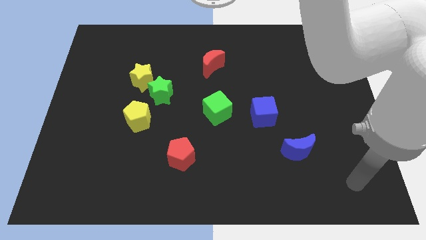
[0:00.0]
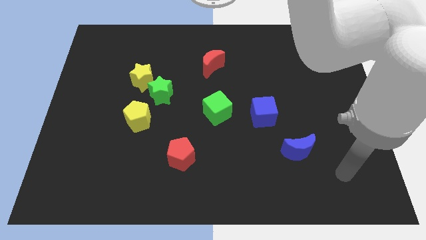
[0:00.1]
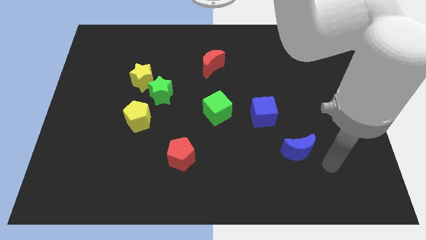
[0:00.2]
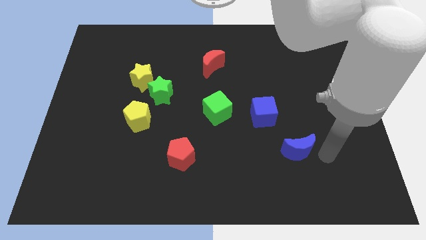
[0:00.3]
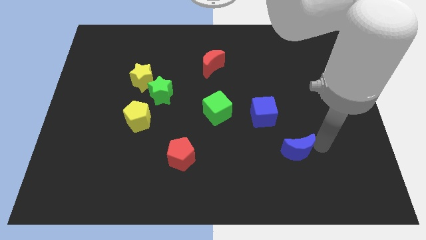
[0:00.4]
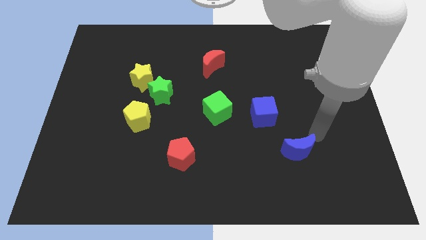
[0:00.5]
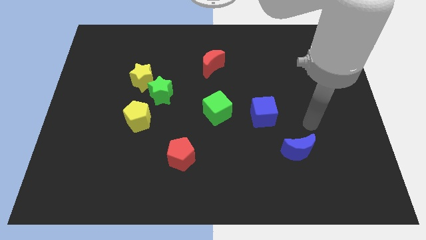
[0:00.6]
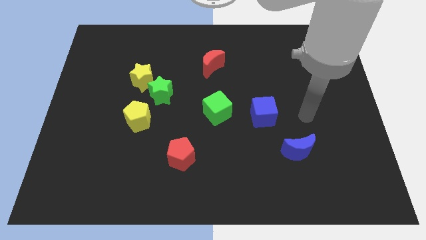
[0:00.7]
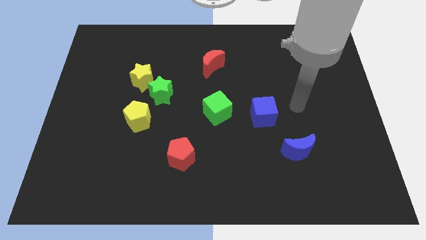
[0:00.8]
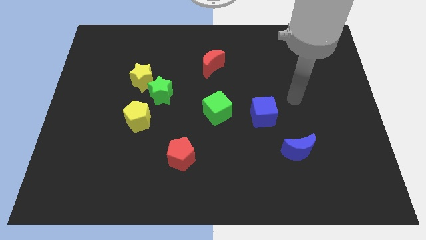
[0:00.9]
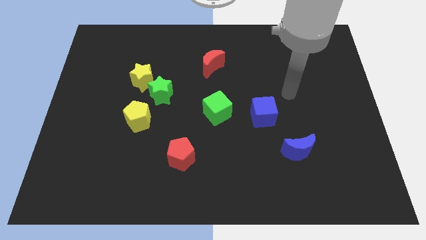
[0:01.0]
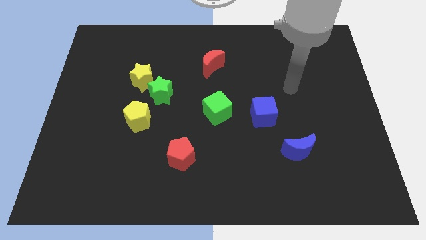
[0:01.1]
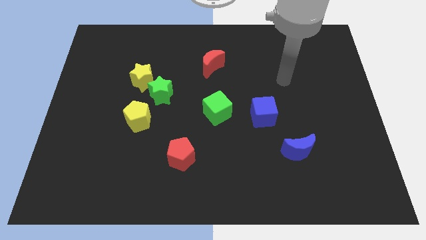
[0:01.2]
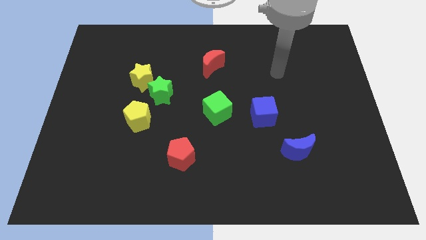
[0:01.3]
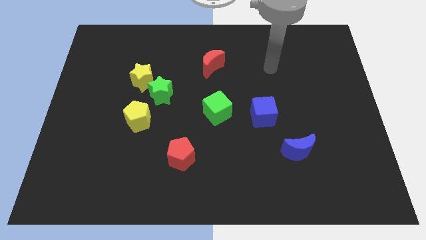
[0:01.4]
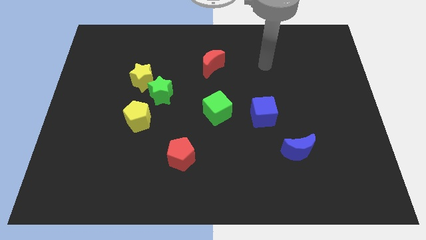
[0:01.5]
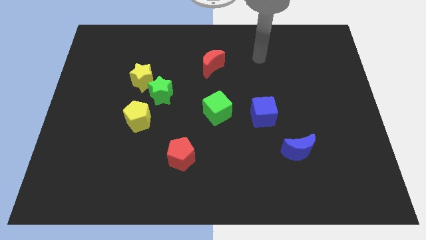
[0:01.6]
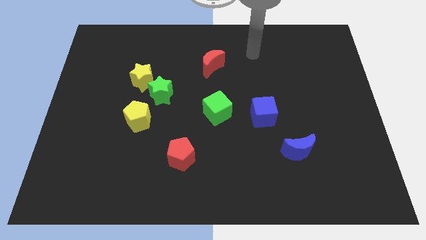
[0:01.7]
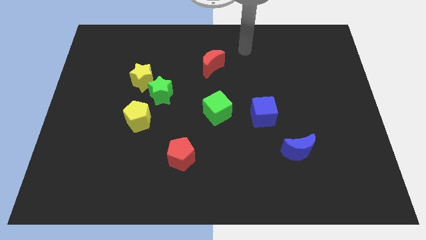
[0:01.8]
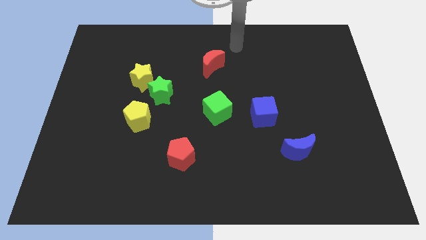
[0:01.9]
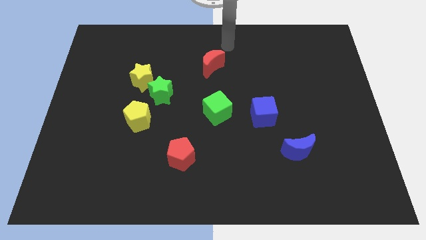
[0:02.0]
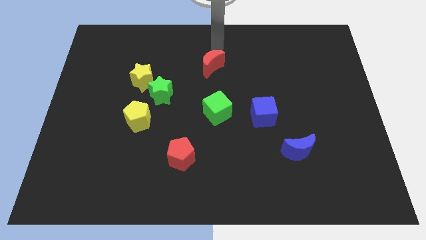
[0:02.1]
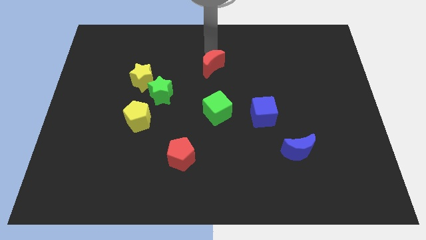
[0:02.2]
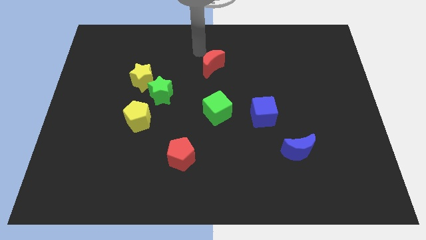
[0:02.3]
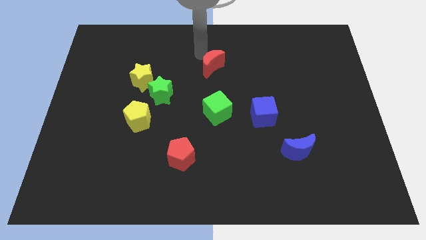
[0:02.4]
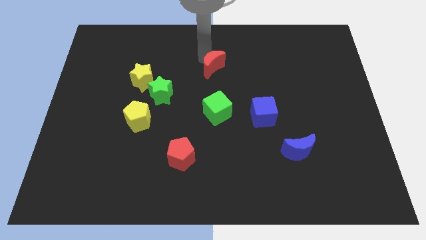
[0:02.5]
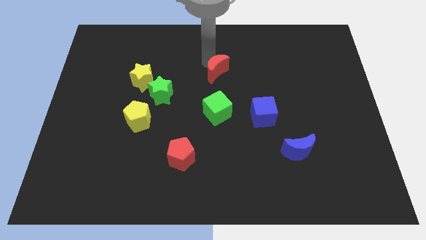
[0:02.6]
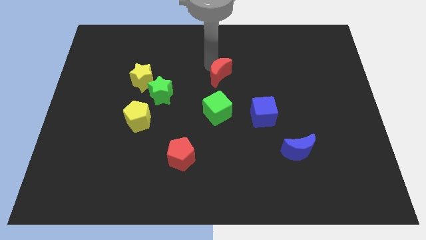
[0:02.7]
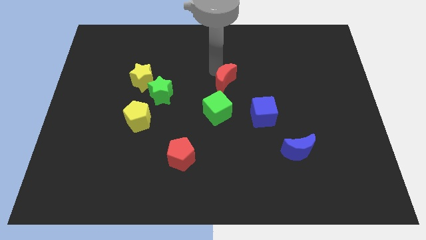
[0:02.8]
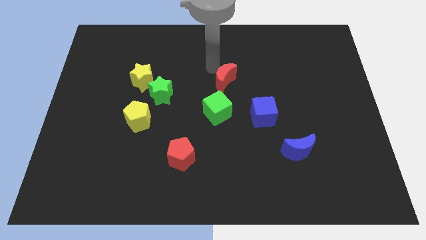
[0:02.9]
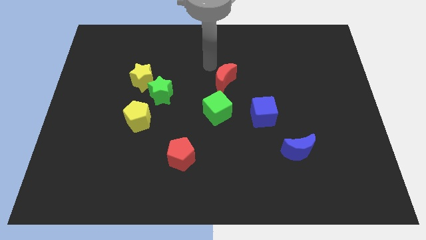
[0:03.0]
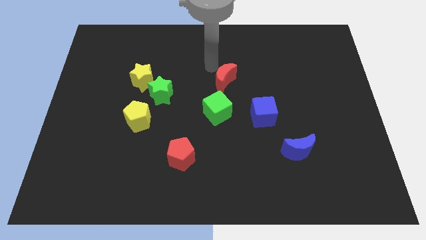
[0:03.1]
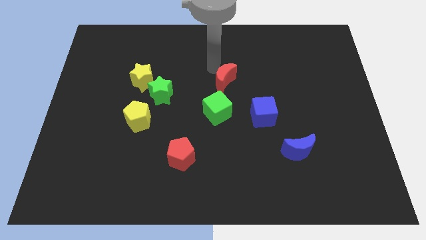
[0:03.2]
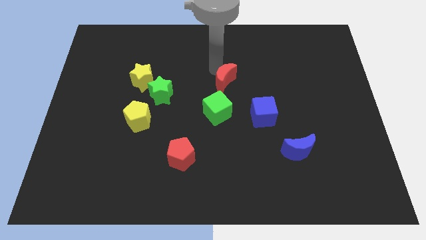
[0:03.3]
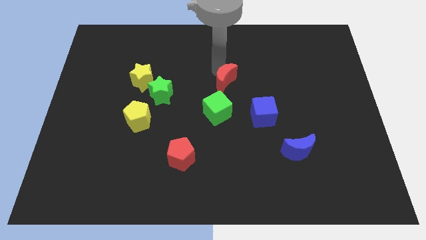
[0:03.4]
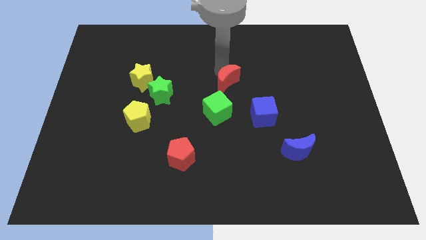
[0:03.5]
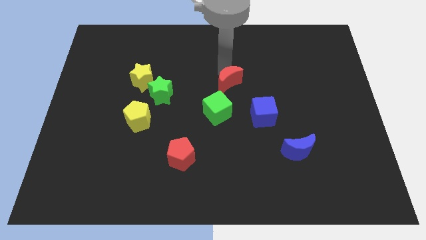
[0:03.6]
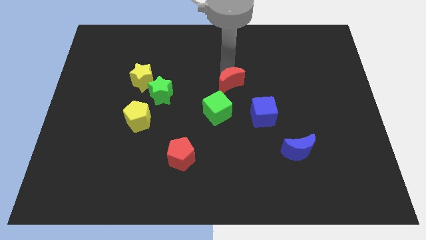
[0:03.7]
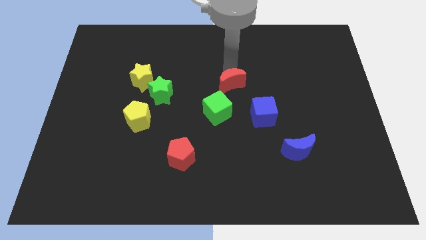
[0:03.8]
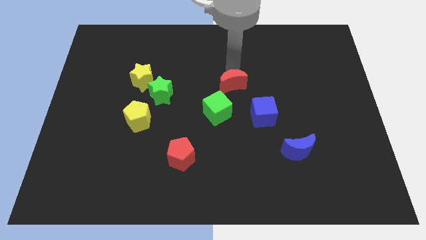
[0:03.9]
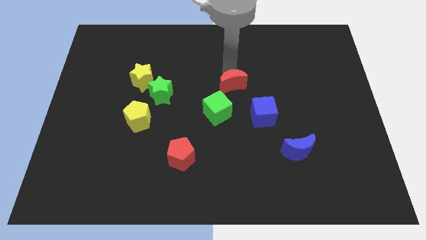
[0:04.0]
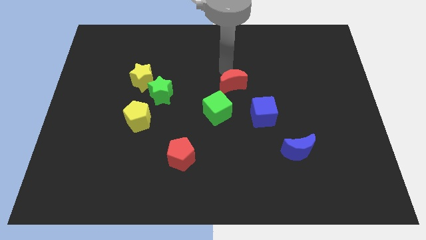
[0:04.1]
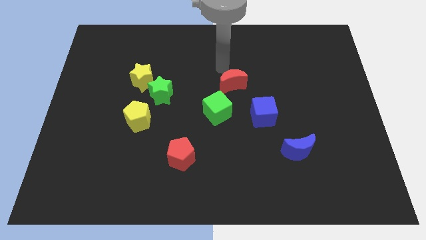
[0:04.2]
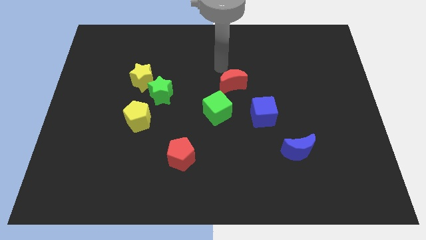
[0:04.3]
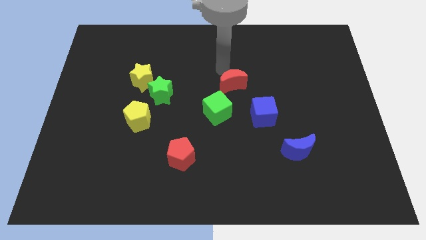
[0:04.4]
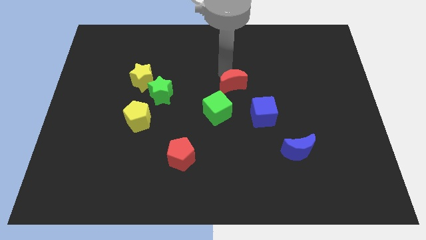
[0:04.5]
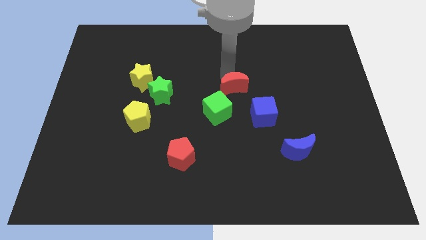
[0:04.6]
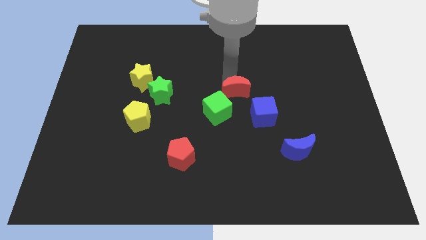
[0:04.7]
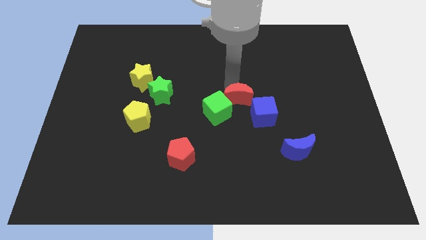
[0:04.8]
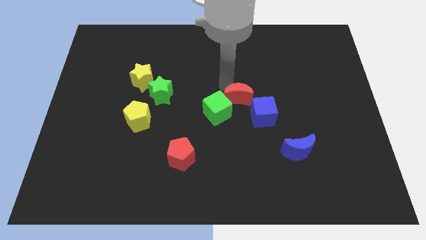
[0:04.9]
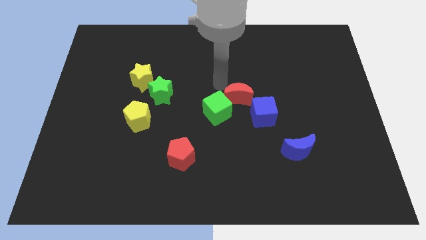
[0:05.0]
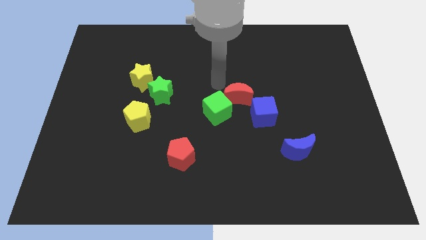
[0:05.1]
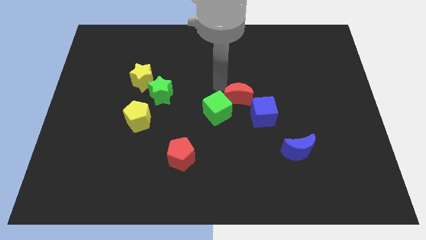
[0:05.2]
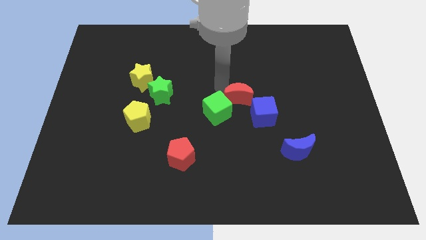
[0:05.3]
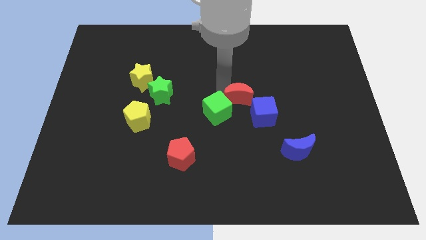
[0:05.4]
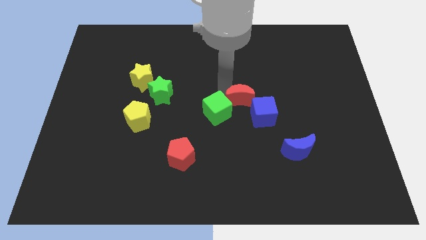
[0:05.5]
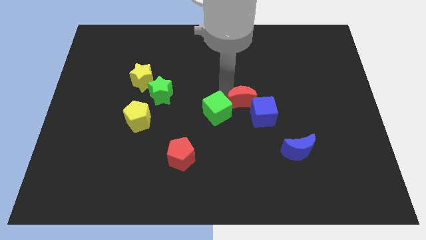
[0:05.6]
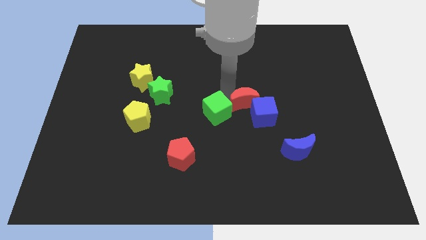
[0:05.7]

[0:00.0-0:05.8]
move the red moon to the blue cube

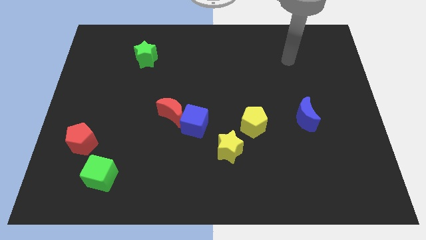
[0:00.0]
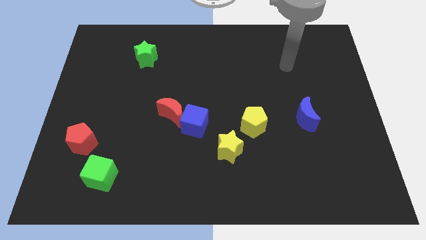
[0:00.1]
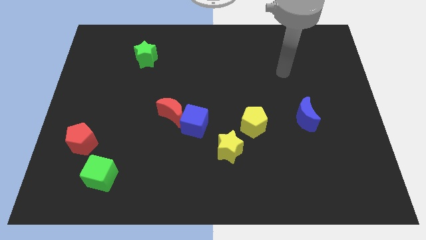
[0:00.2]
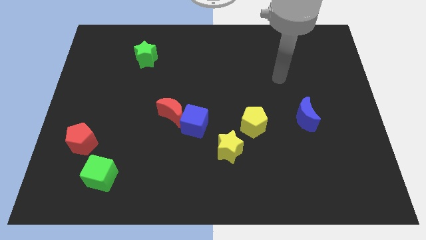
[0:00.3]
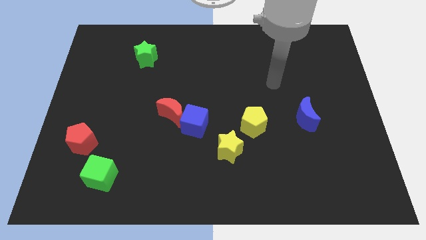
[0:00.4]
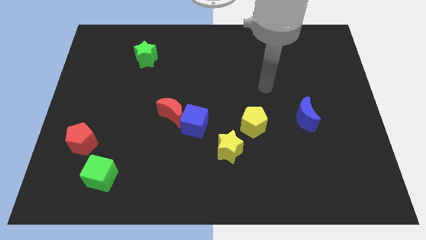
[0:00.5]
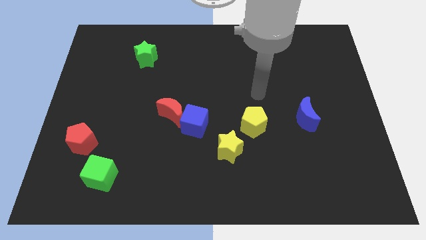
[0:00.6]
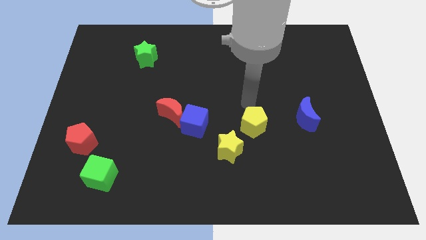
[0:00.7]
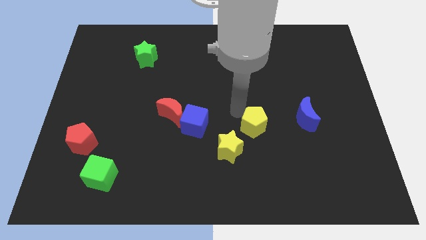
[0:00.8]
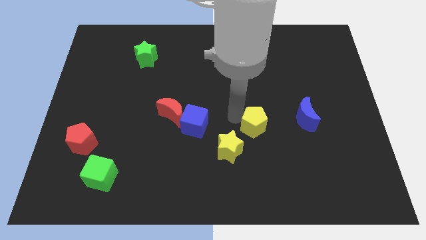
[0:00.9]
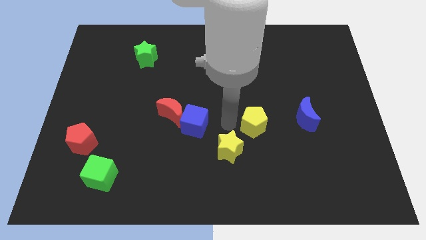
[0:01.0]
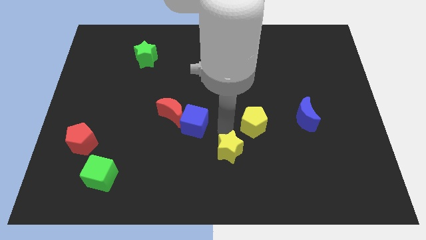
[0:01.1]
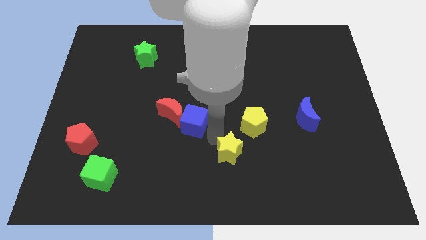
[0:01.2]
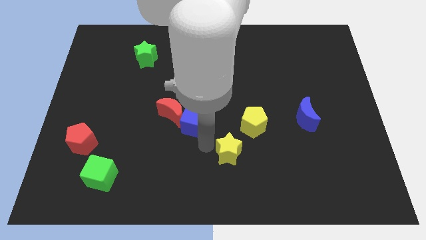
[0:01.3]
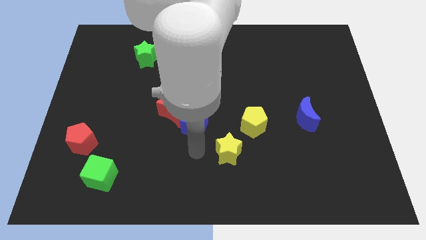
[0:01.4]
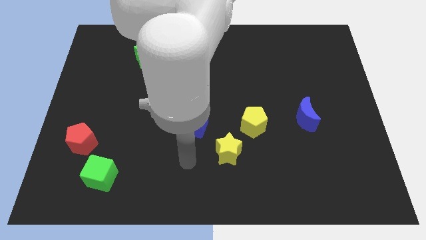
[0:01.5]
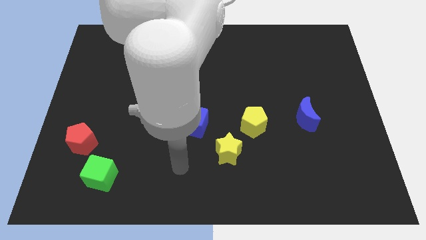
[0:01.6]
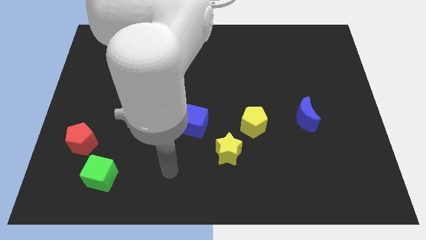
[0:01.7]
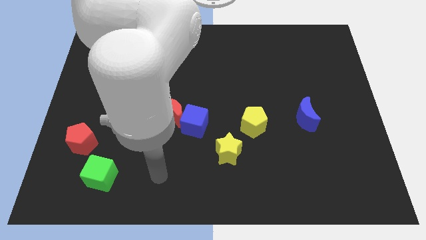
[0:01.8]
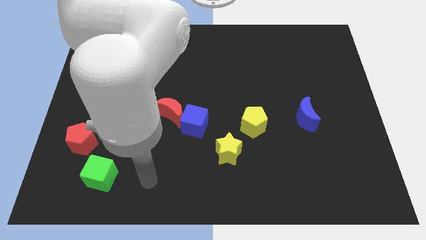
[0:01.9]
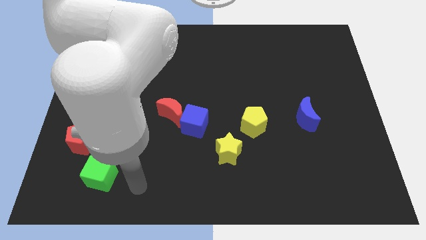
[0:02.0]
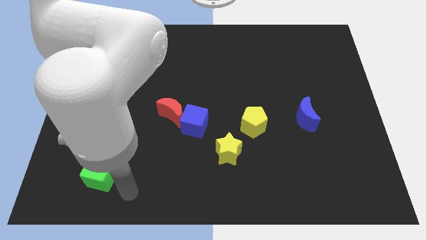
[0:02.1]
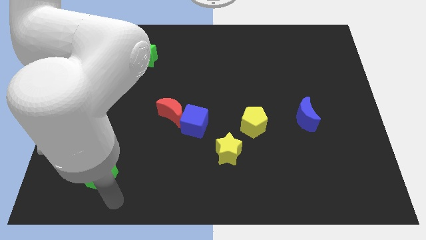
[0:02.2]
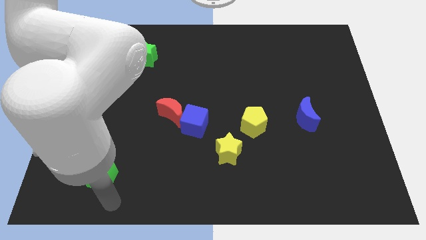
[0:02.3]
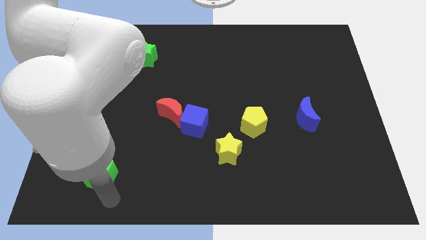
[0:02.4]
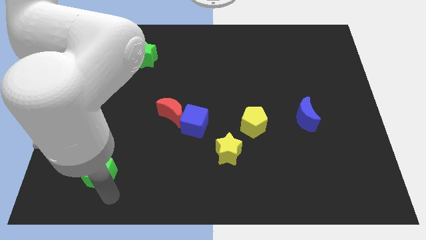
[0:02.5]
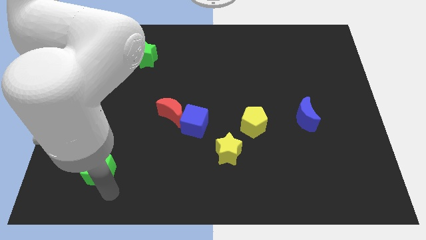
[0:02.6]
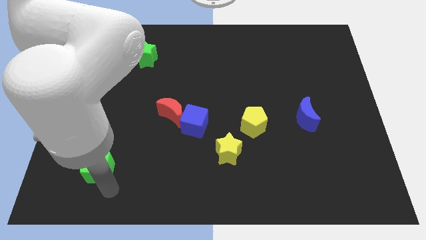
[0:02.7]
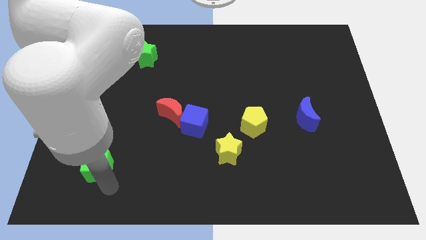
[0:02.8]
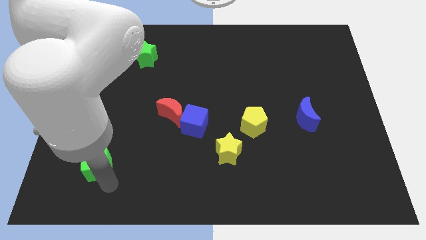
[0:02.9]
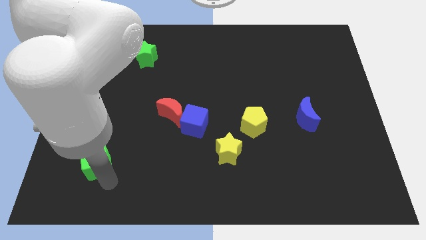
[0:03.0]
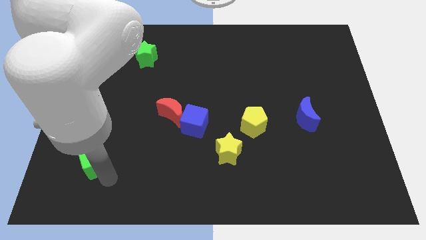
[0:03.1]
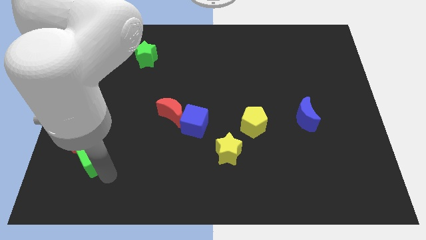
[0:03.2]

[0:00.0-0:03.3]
put the green cube close to the red pentagon
